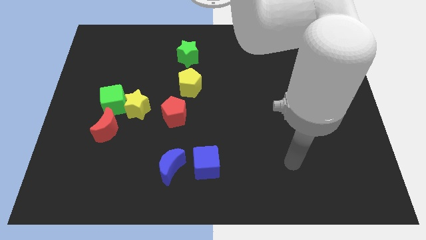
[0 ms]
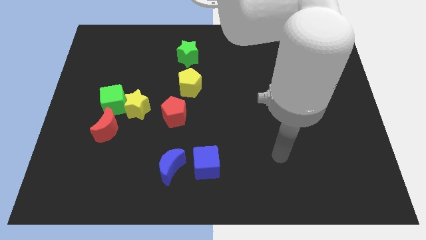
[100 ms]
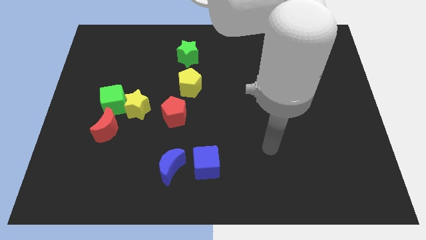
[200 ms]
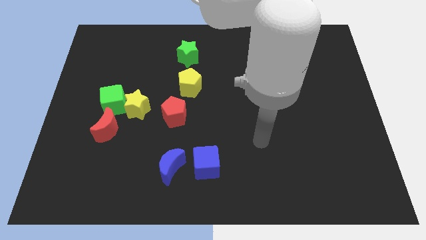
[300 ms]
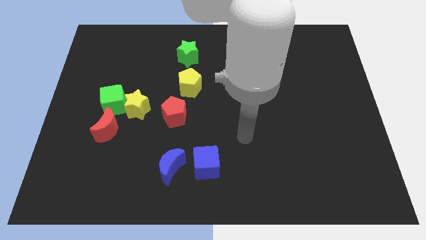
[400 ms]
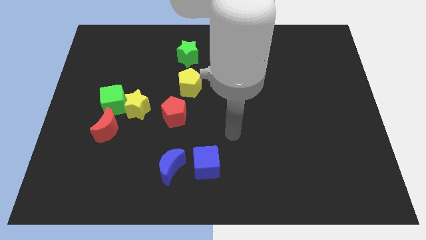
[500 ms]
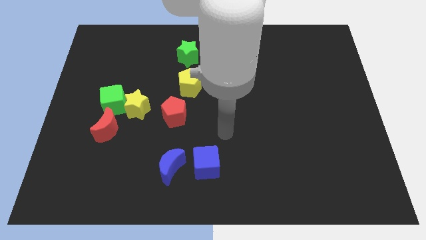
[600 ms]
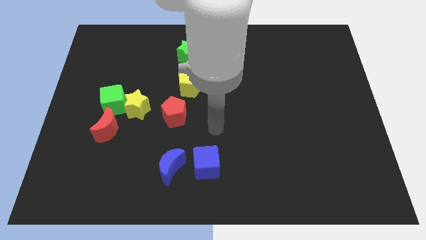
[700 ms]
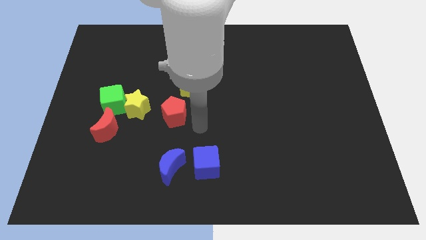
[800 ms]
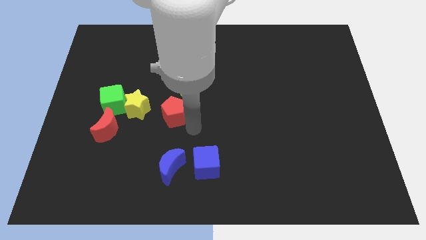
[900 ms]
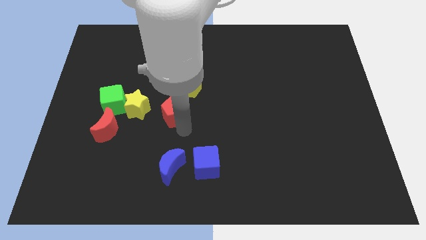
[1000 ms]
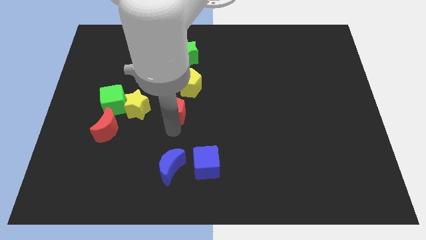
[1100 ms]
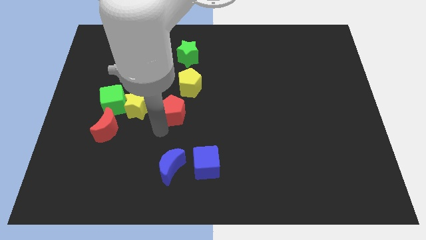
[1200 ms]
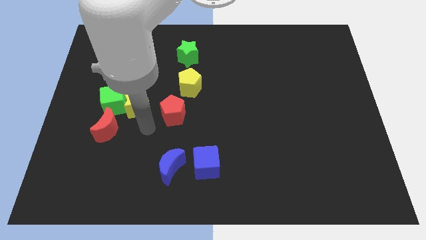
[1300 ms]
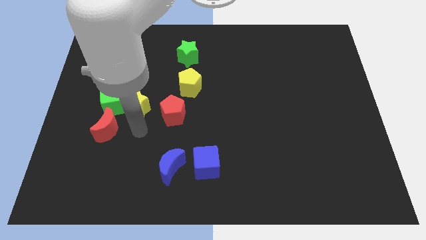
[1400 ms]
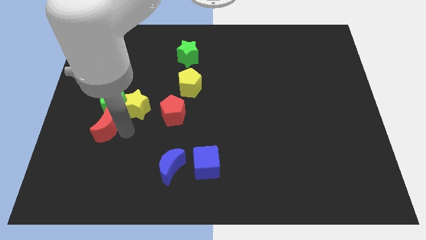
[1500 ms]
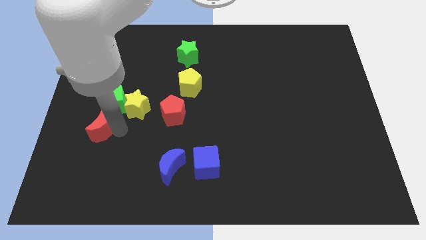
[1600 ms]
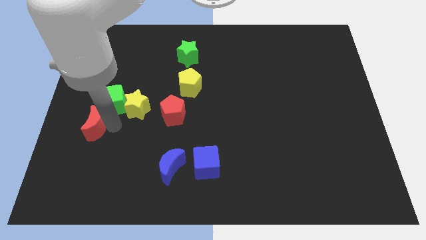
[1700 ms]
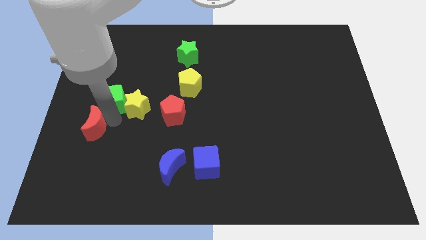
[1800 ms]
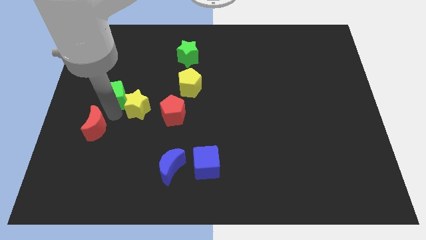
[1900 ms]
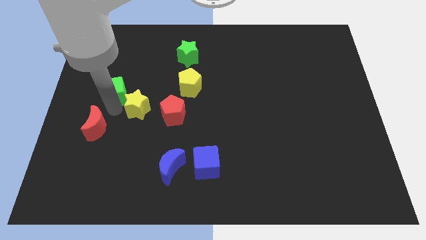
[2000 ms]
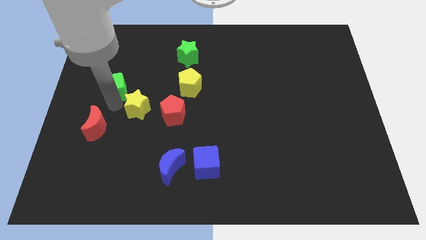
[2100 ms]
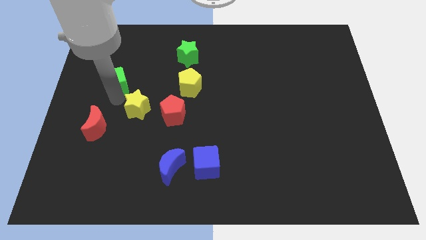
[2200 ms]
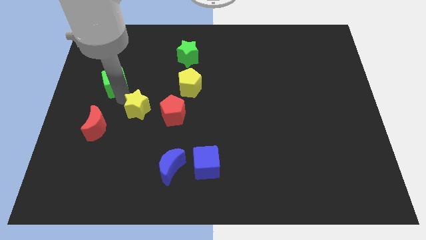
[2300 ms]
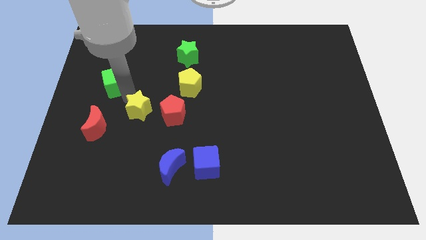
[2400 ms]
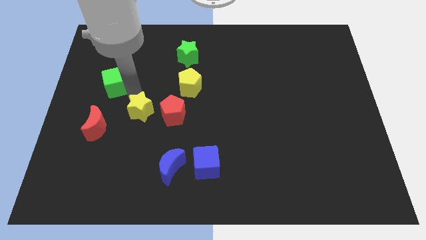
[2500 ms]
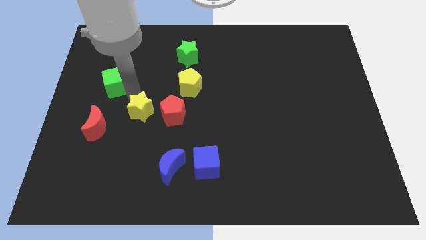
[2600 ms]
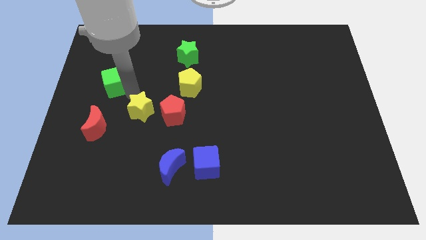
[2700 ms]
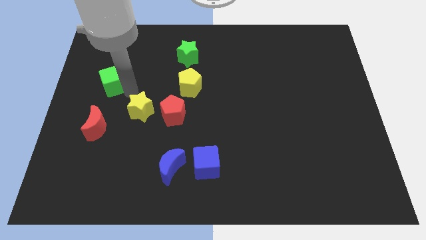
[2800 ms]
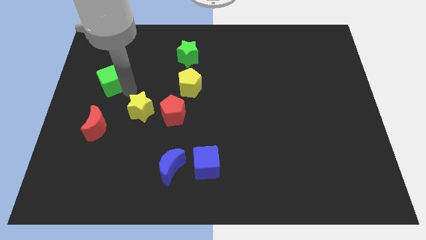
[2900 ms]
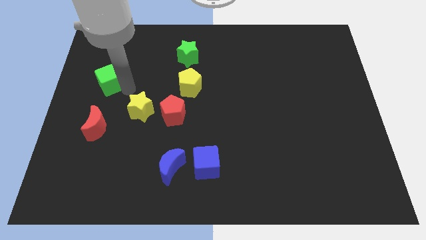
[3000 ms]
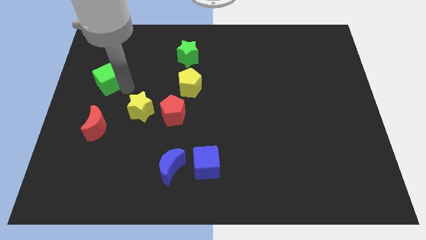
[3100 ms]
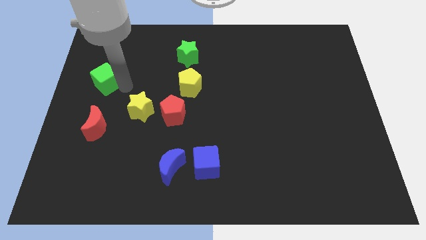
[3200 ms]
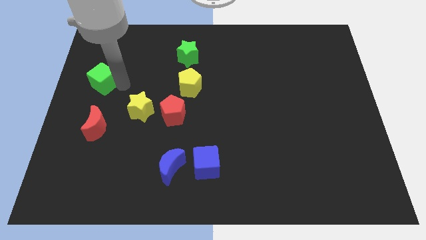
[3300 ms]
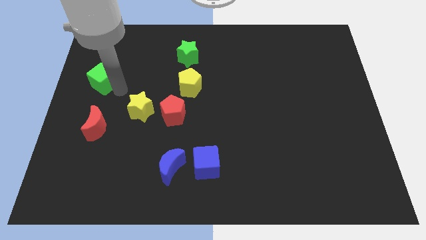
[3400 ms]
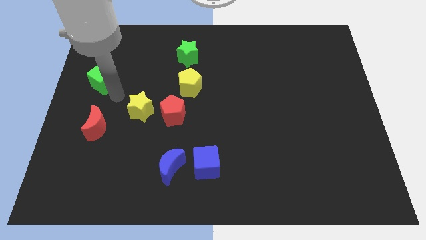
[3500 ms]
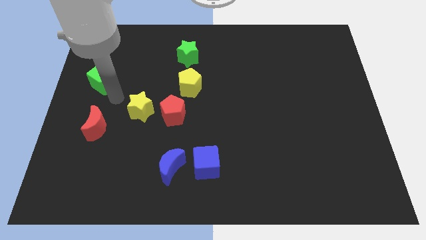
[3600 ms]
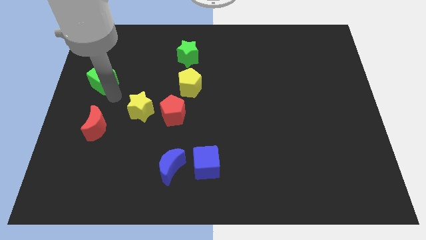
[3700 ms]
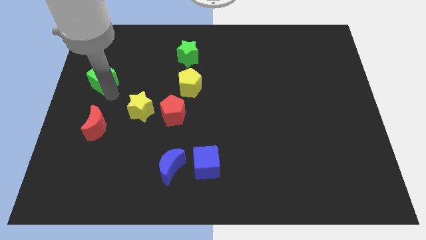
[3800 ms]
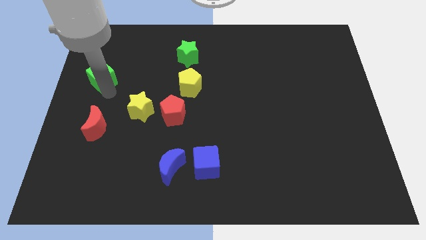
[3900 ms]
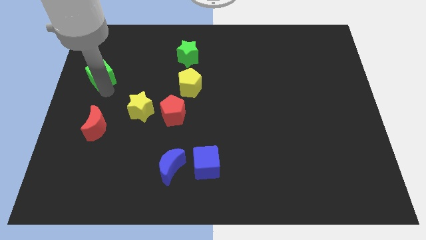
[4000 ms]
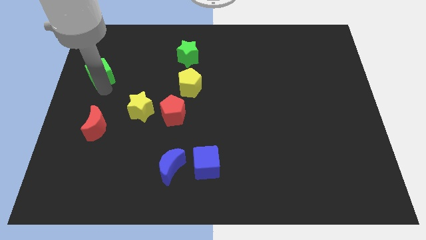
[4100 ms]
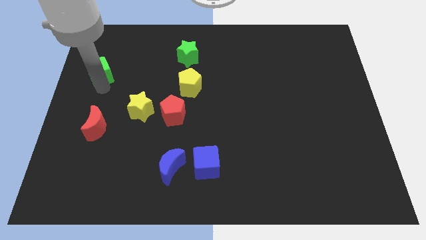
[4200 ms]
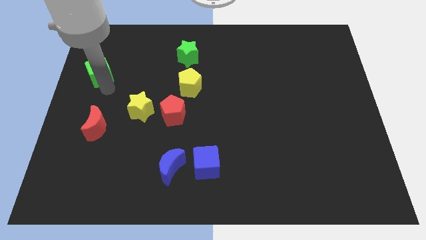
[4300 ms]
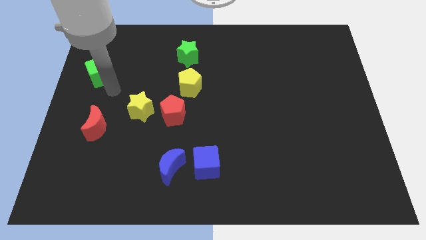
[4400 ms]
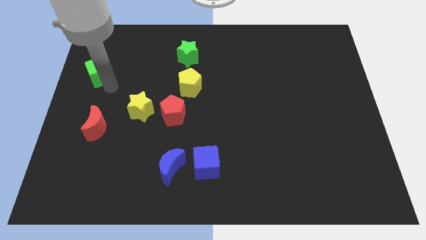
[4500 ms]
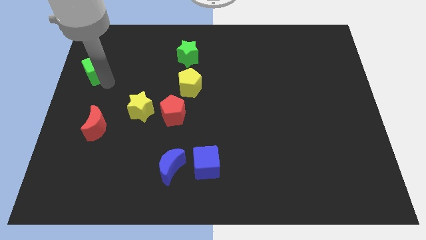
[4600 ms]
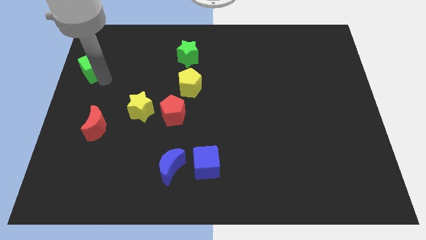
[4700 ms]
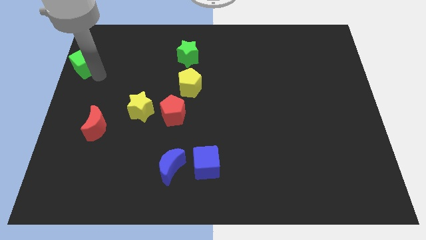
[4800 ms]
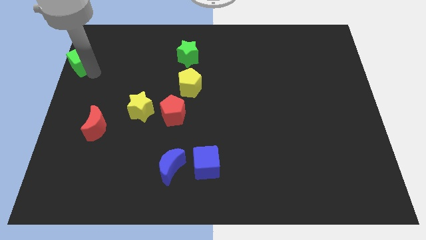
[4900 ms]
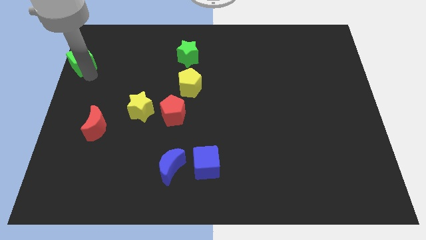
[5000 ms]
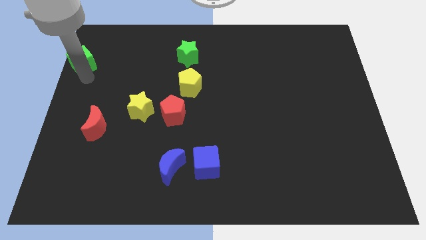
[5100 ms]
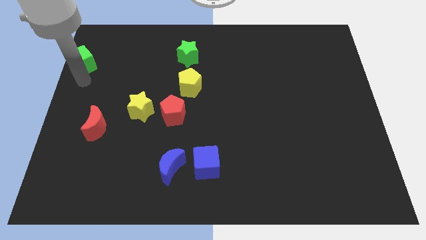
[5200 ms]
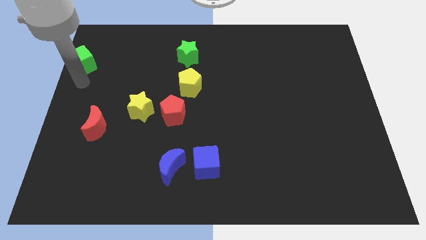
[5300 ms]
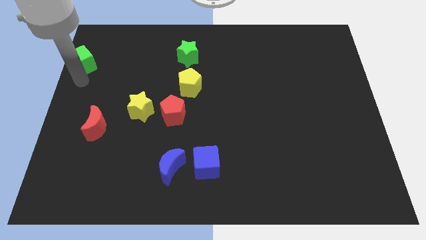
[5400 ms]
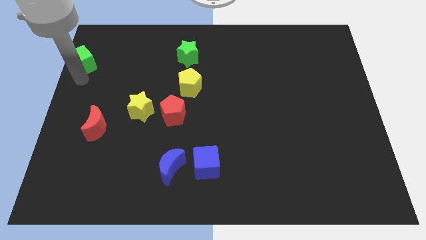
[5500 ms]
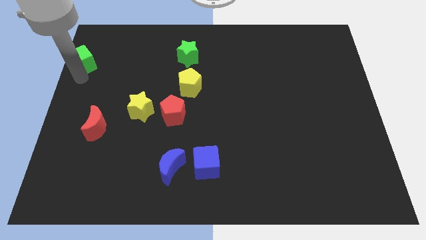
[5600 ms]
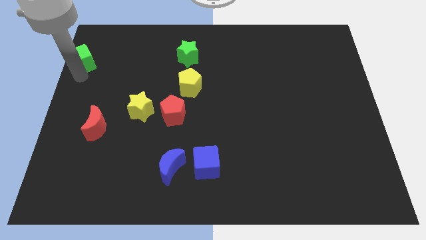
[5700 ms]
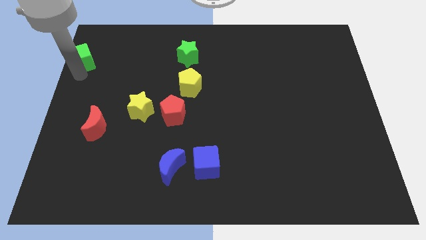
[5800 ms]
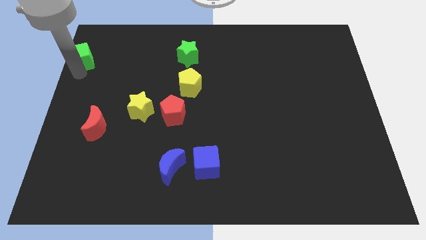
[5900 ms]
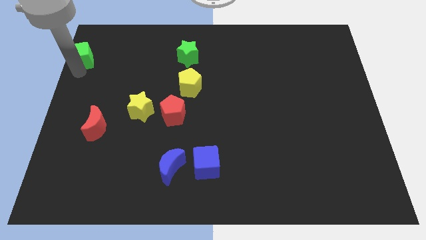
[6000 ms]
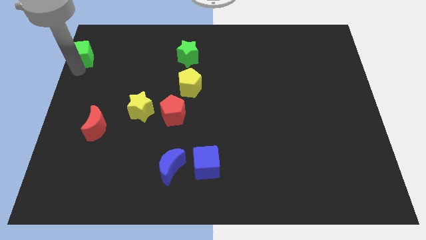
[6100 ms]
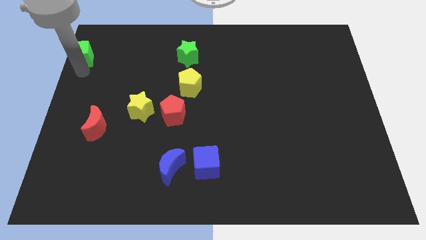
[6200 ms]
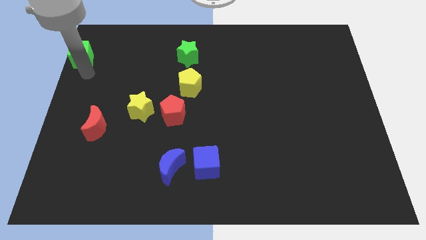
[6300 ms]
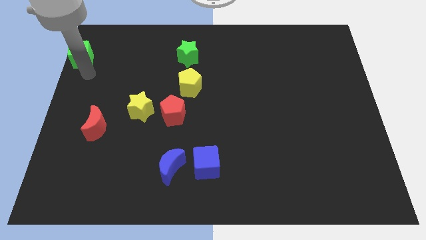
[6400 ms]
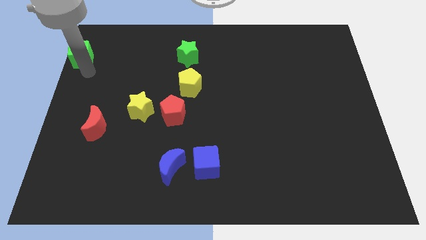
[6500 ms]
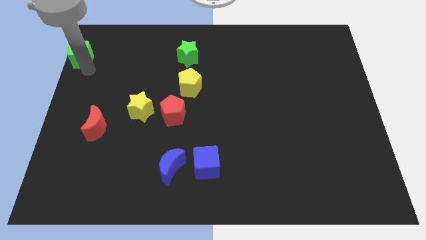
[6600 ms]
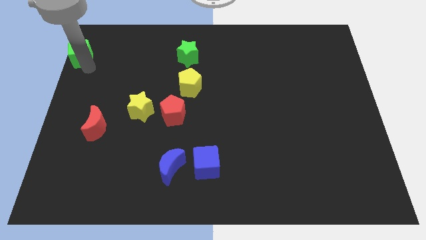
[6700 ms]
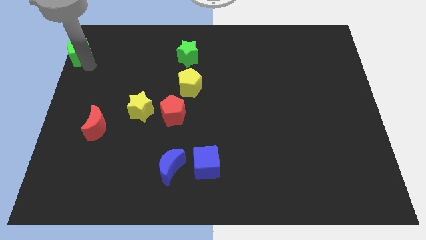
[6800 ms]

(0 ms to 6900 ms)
push the green cube to the top left of the board
